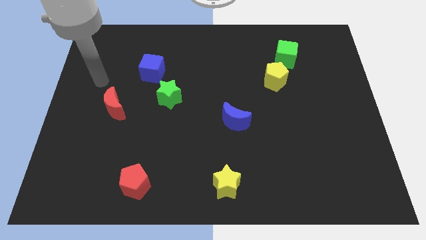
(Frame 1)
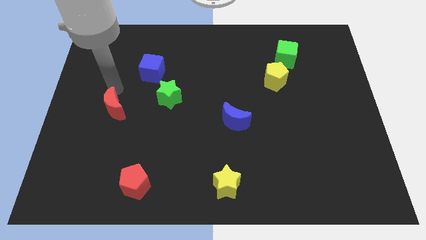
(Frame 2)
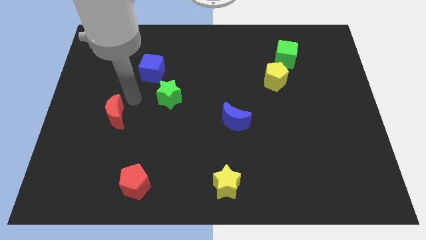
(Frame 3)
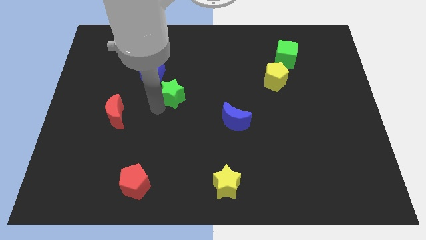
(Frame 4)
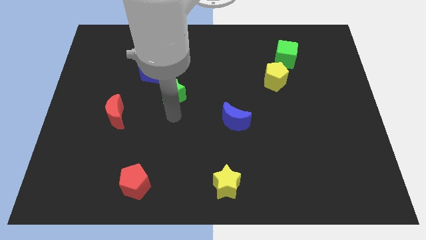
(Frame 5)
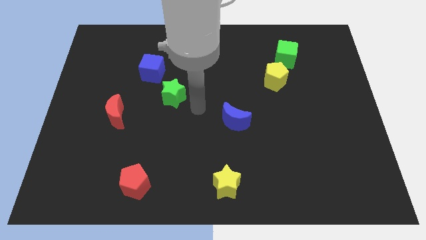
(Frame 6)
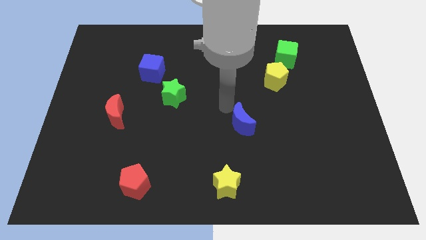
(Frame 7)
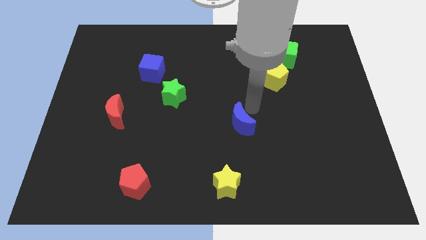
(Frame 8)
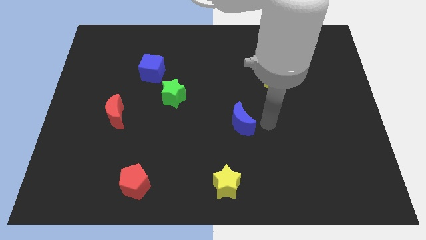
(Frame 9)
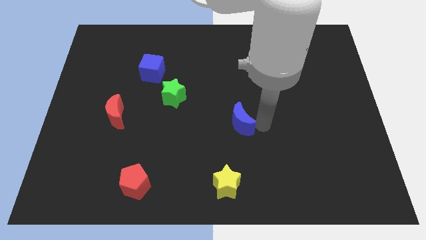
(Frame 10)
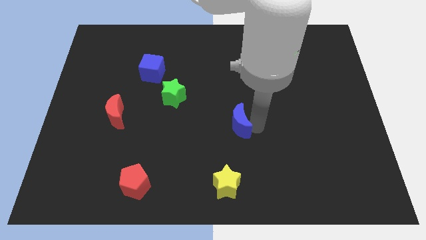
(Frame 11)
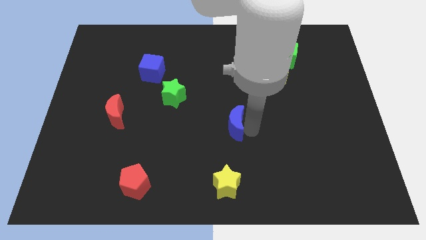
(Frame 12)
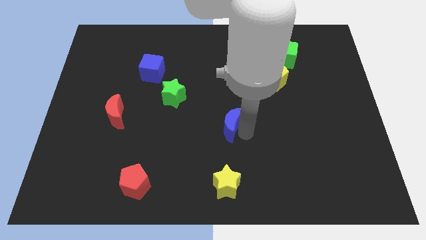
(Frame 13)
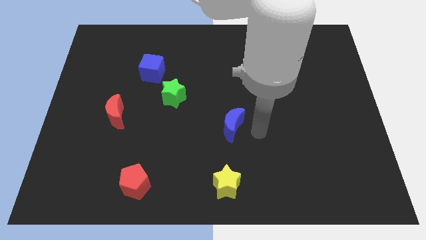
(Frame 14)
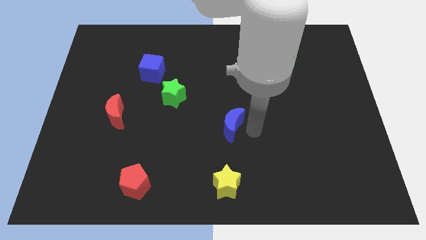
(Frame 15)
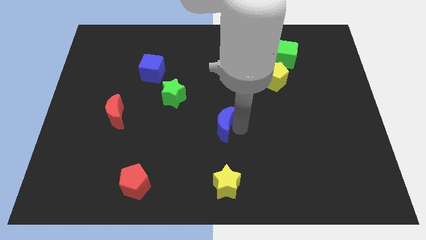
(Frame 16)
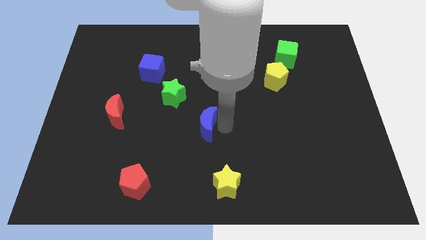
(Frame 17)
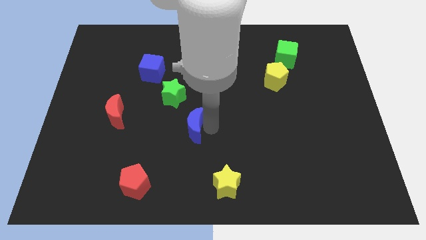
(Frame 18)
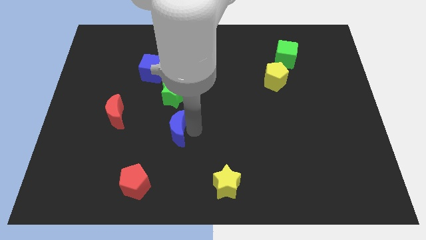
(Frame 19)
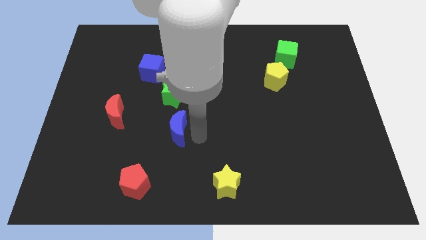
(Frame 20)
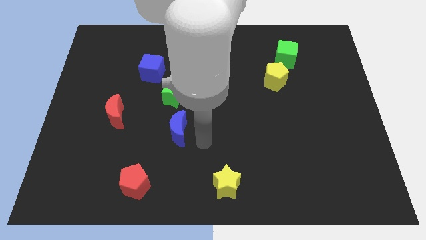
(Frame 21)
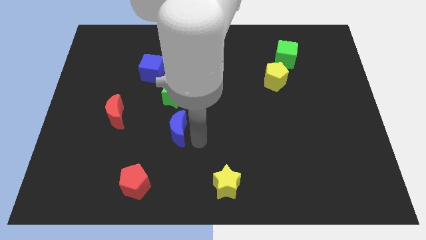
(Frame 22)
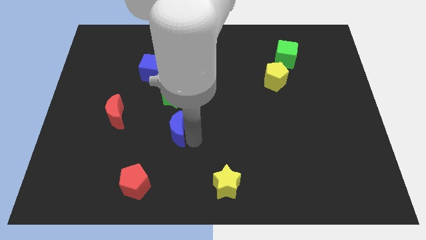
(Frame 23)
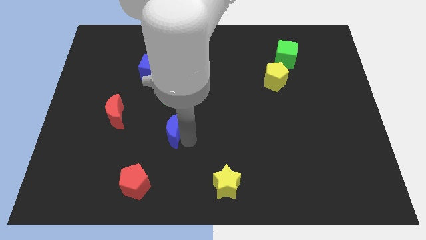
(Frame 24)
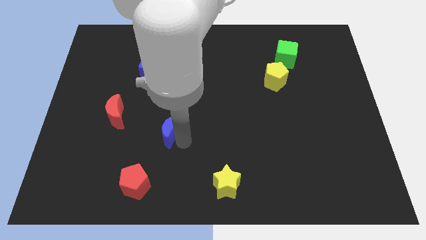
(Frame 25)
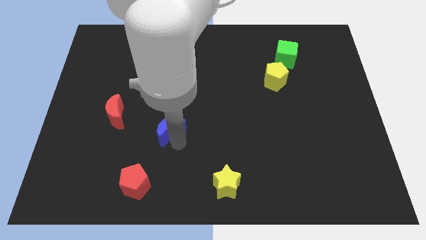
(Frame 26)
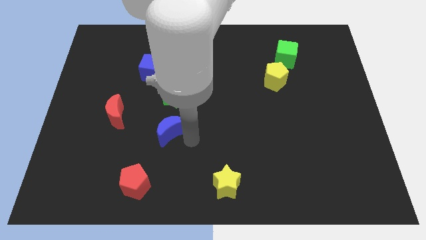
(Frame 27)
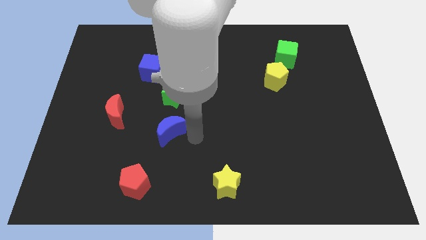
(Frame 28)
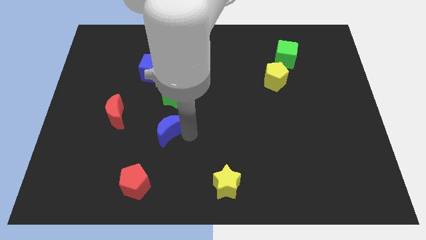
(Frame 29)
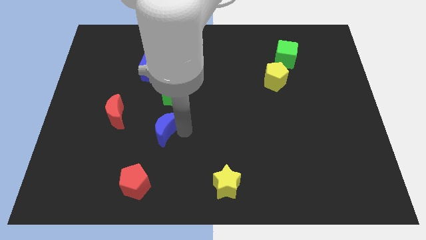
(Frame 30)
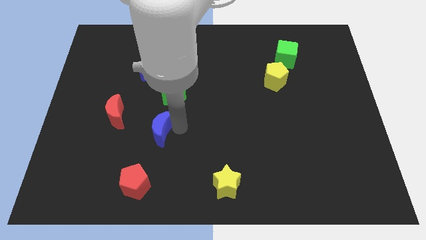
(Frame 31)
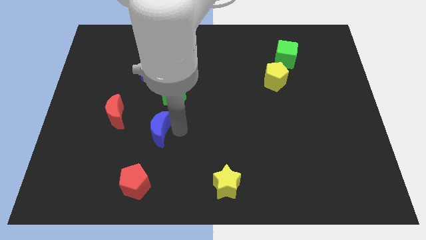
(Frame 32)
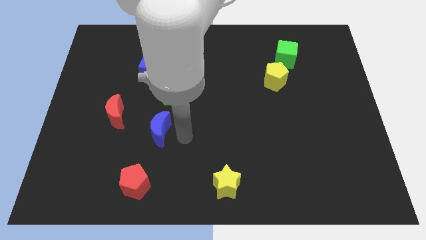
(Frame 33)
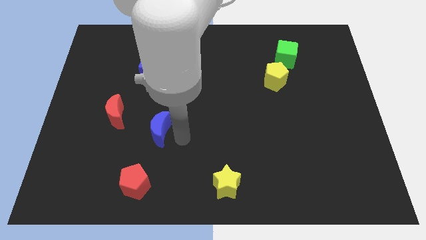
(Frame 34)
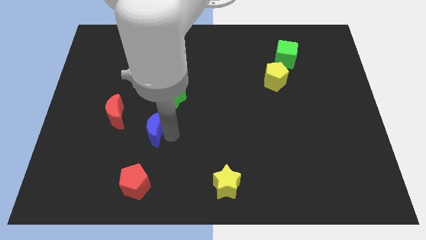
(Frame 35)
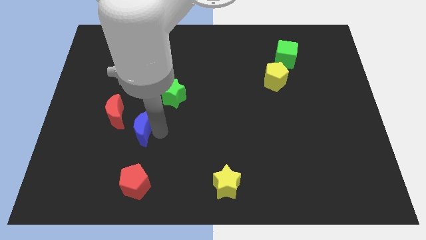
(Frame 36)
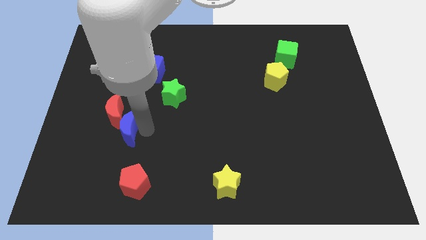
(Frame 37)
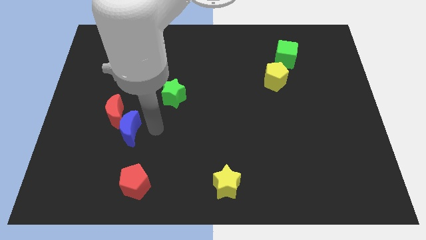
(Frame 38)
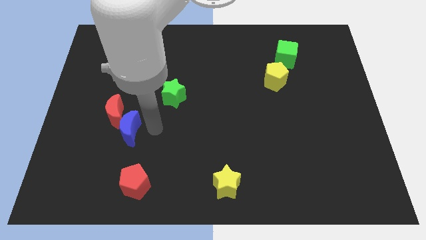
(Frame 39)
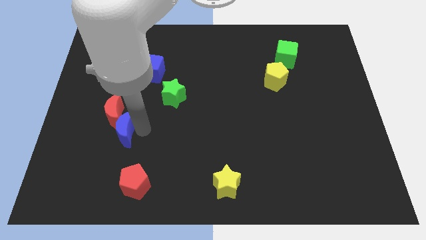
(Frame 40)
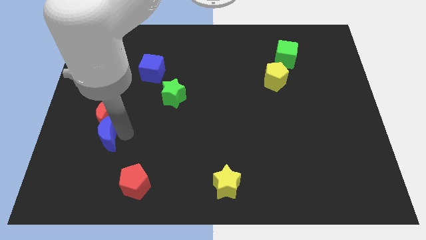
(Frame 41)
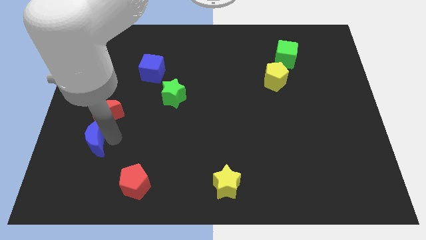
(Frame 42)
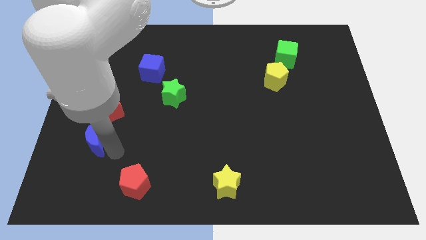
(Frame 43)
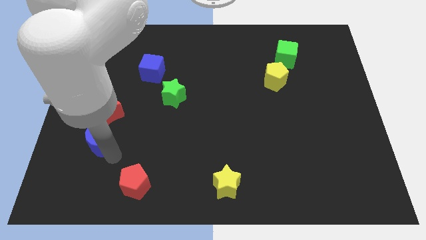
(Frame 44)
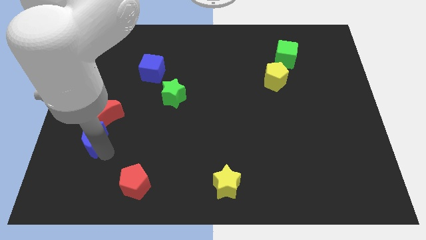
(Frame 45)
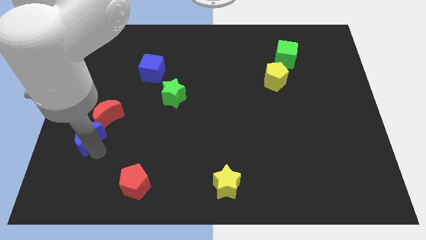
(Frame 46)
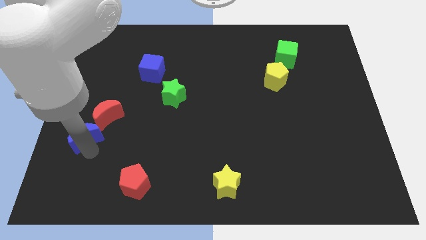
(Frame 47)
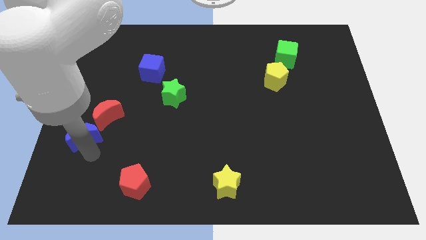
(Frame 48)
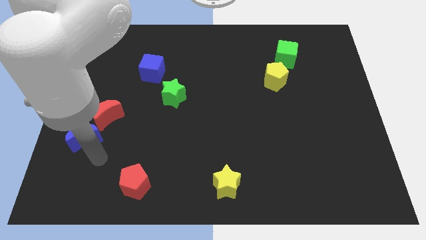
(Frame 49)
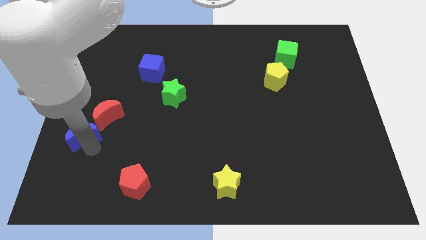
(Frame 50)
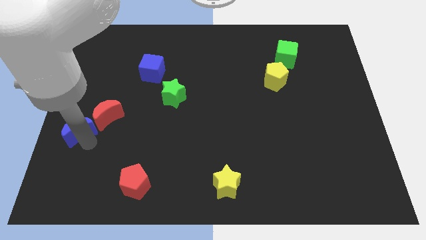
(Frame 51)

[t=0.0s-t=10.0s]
move the blue moon to the left side

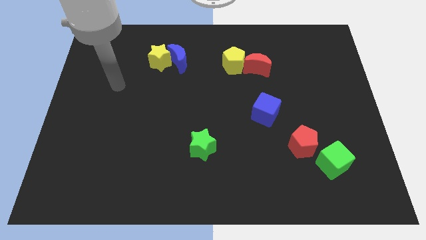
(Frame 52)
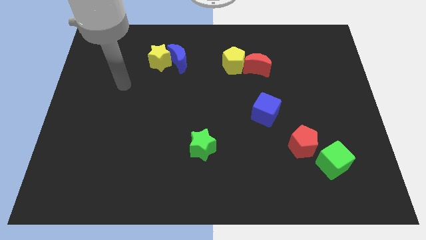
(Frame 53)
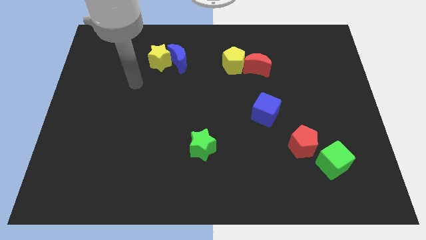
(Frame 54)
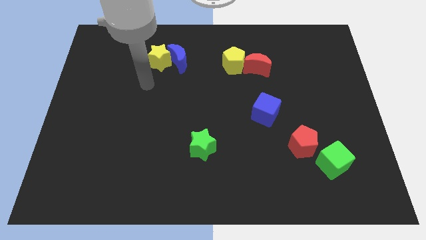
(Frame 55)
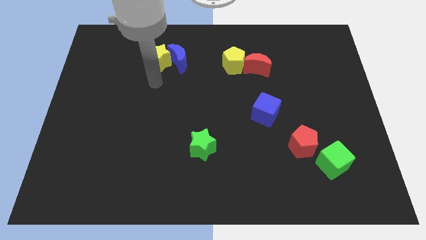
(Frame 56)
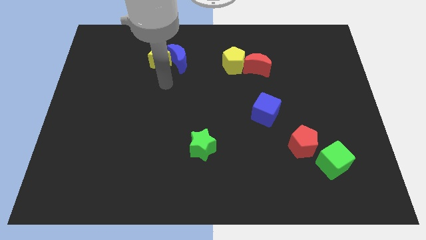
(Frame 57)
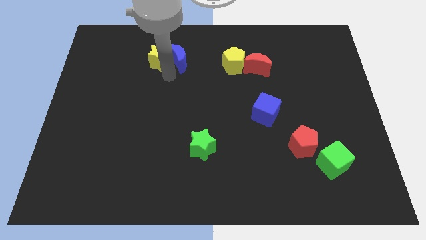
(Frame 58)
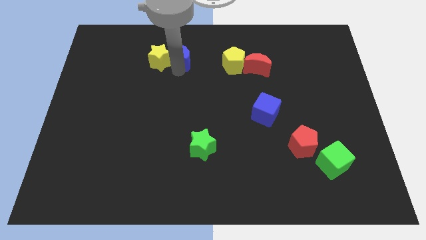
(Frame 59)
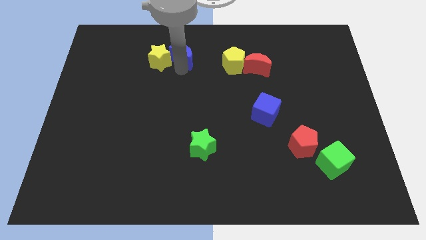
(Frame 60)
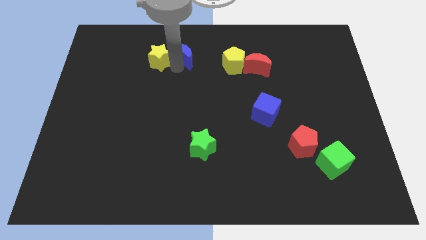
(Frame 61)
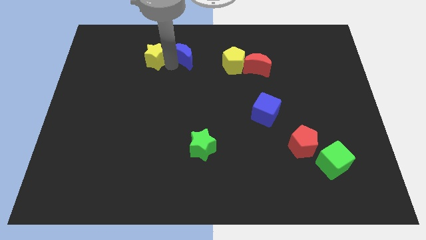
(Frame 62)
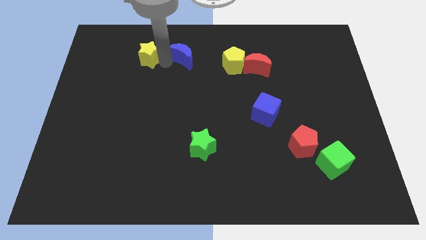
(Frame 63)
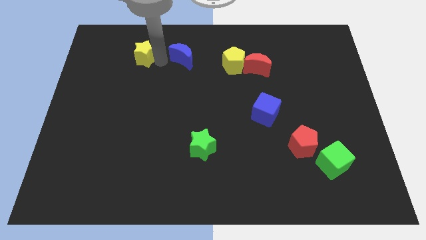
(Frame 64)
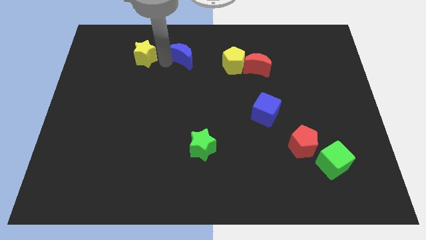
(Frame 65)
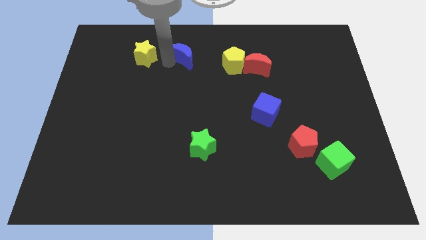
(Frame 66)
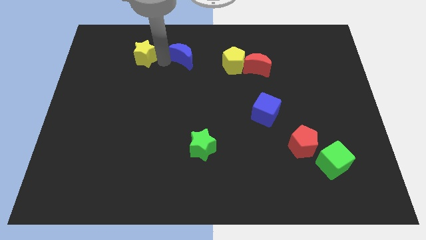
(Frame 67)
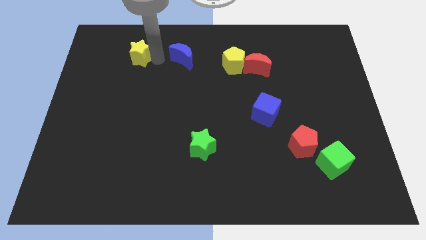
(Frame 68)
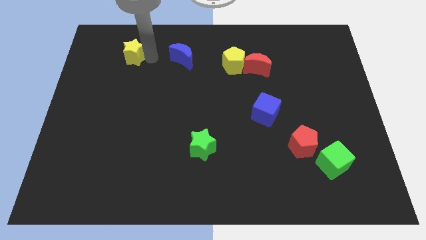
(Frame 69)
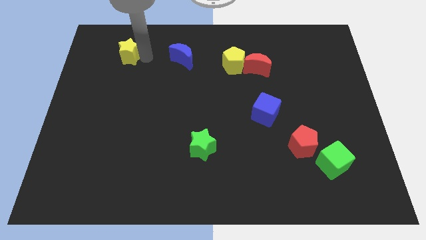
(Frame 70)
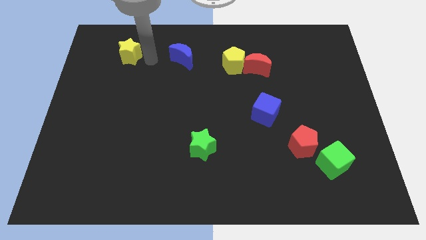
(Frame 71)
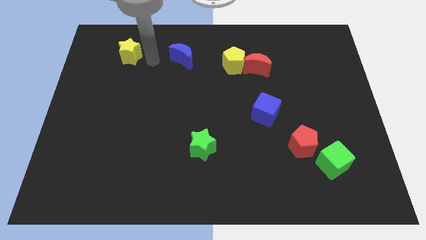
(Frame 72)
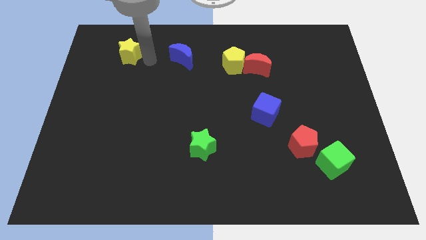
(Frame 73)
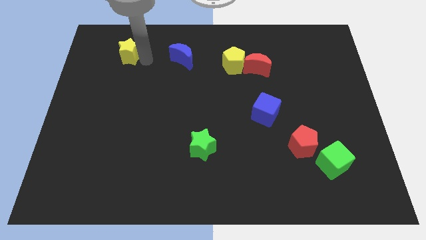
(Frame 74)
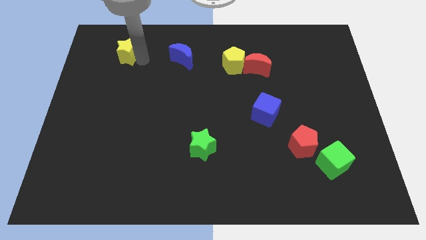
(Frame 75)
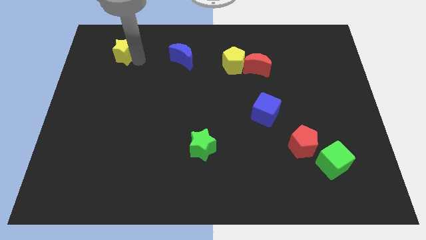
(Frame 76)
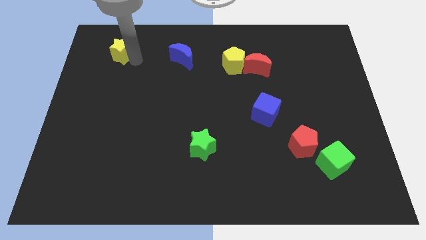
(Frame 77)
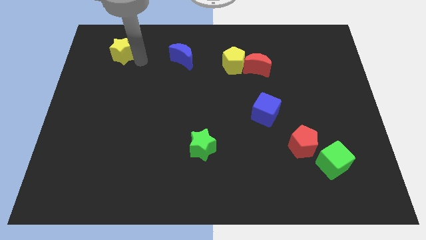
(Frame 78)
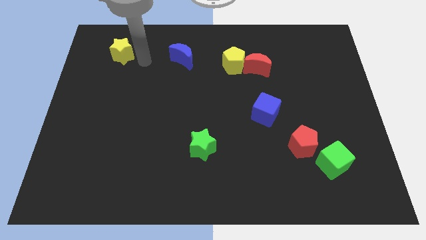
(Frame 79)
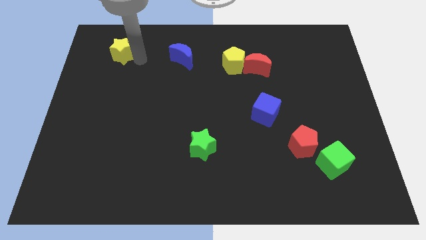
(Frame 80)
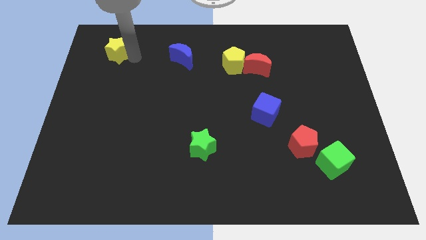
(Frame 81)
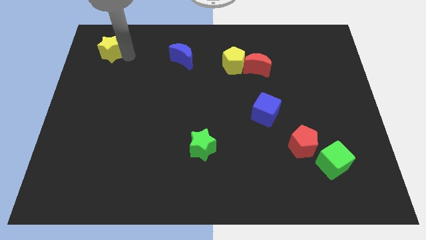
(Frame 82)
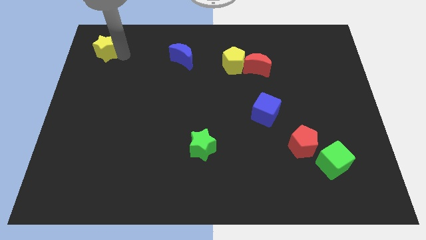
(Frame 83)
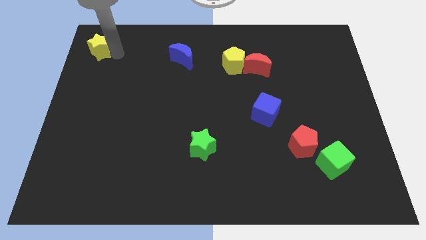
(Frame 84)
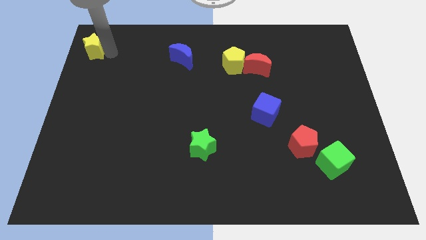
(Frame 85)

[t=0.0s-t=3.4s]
push the yellow star to the top left
